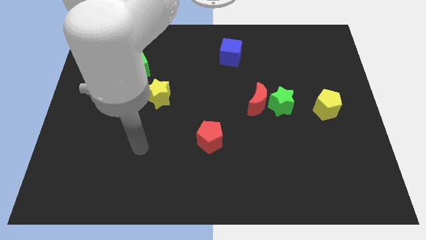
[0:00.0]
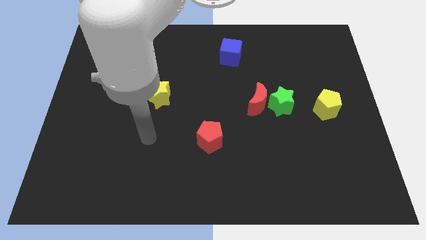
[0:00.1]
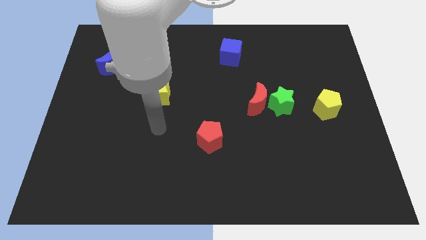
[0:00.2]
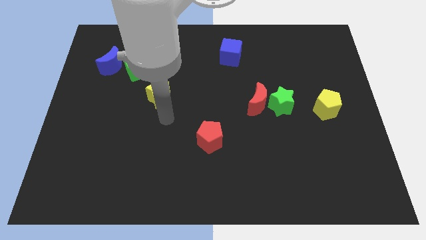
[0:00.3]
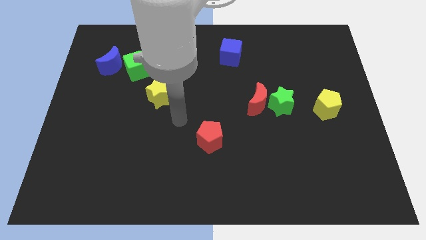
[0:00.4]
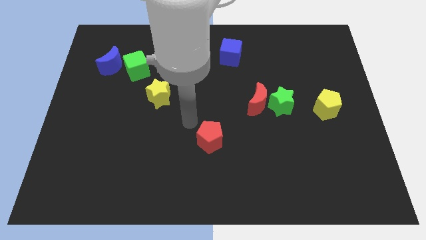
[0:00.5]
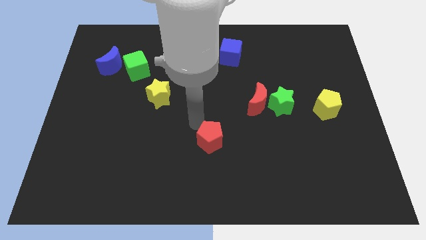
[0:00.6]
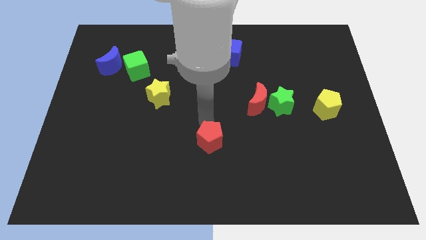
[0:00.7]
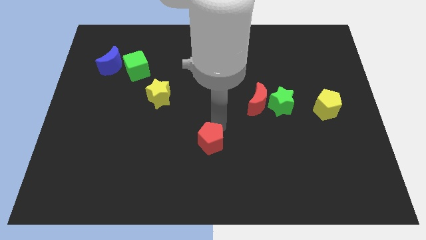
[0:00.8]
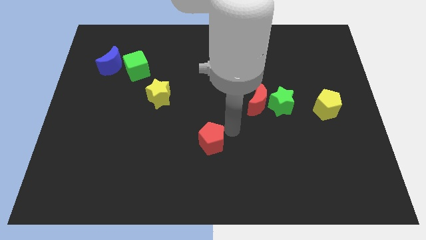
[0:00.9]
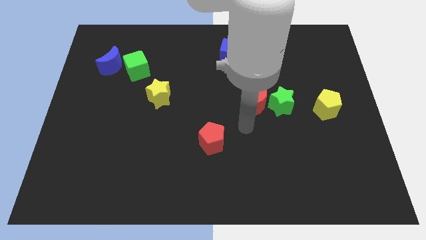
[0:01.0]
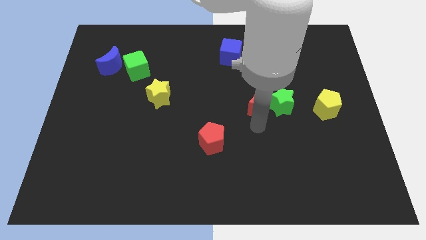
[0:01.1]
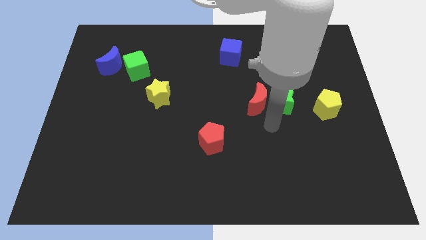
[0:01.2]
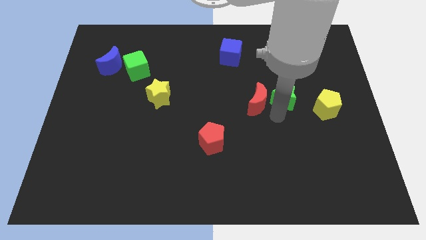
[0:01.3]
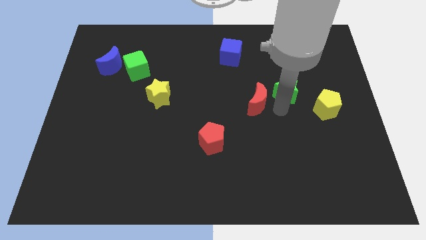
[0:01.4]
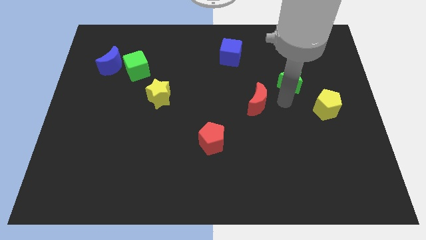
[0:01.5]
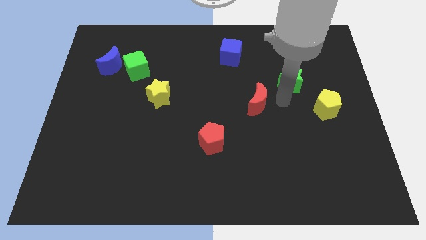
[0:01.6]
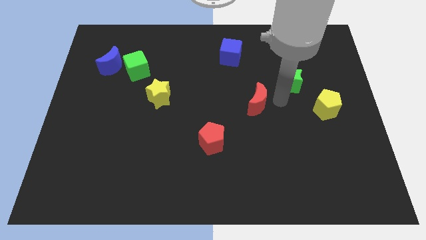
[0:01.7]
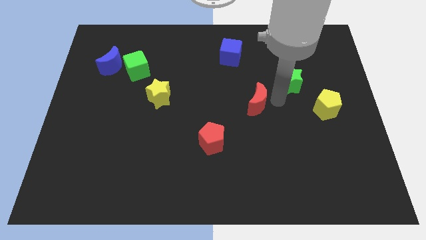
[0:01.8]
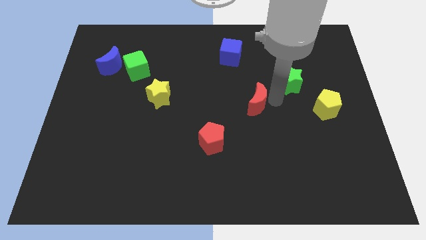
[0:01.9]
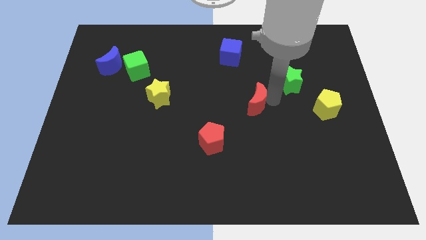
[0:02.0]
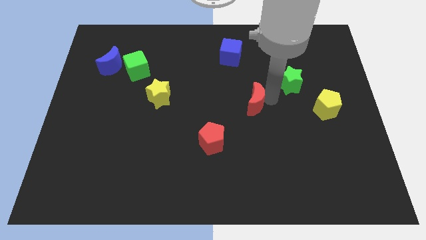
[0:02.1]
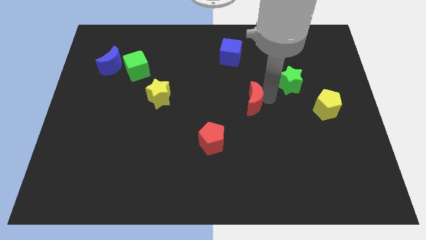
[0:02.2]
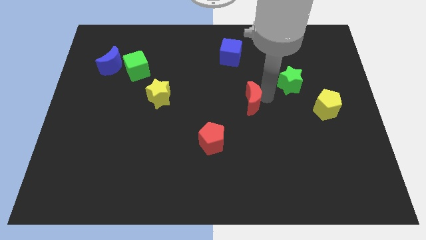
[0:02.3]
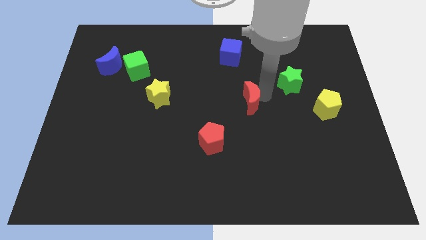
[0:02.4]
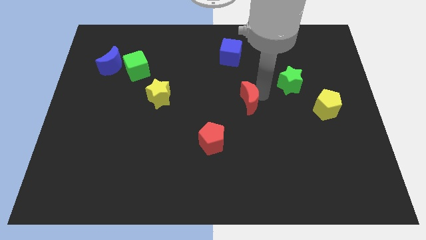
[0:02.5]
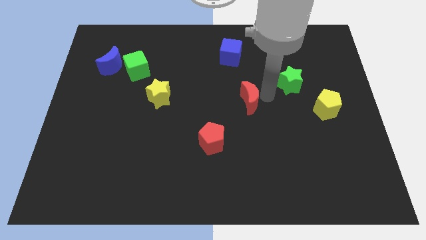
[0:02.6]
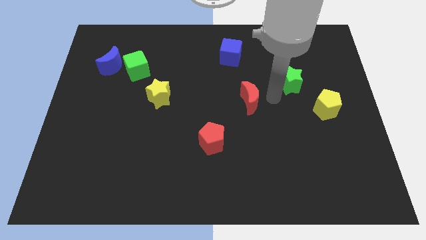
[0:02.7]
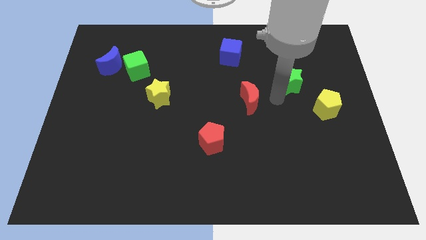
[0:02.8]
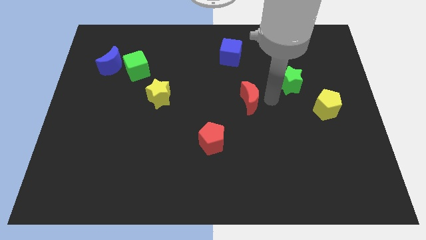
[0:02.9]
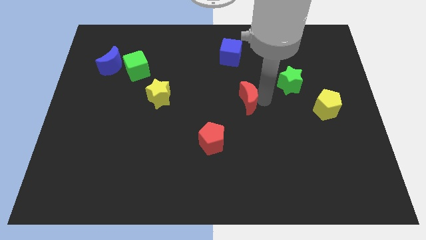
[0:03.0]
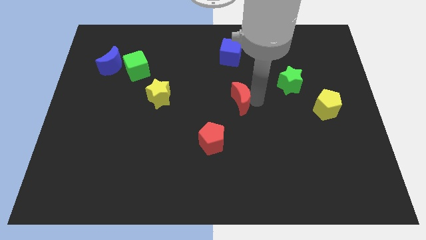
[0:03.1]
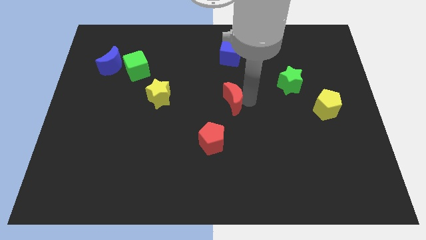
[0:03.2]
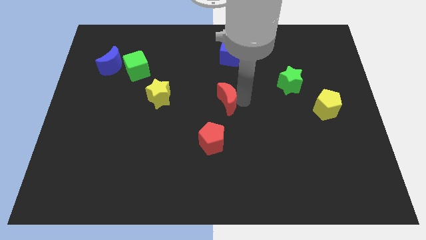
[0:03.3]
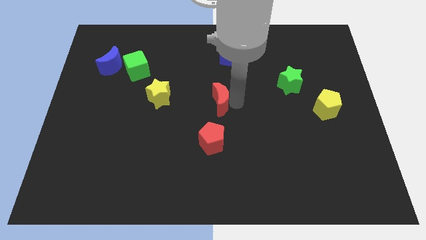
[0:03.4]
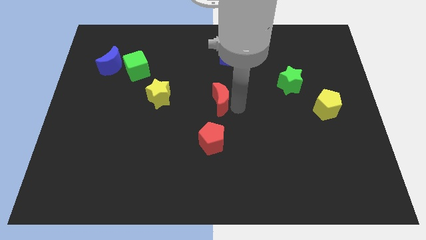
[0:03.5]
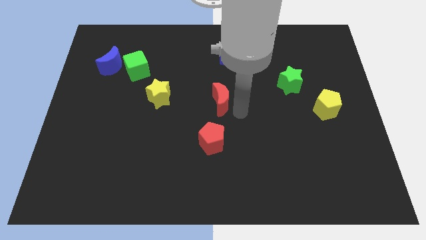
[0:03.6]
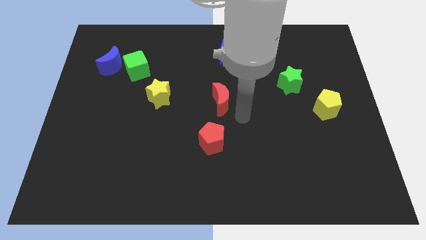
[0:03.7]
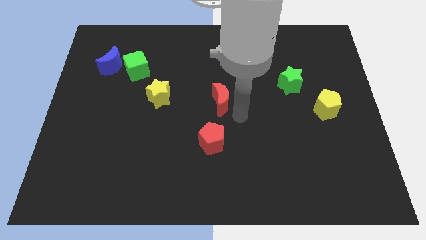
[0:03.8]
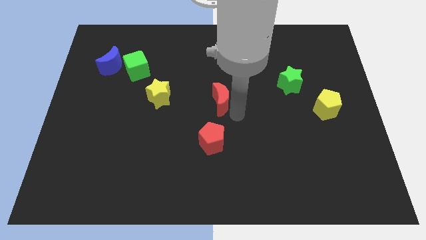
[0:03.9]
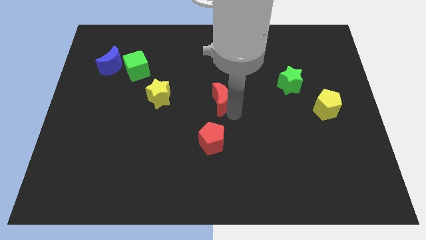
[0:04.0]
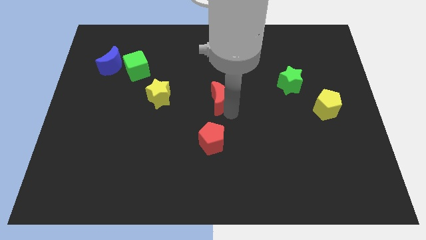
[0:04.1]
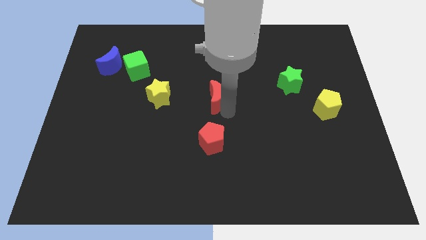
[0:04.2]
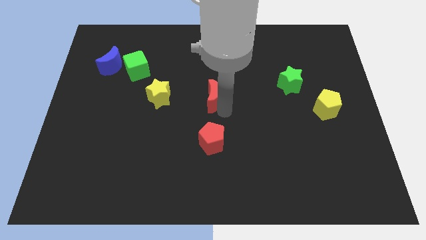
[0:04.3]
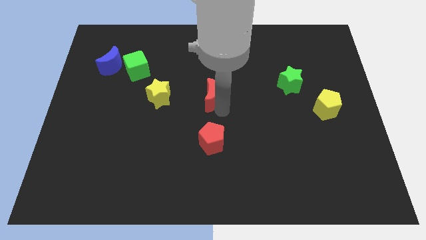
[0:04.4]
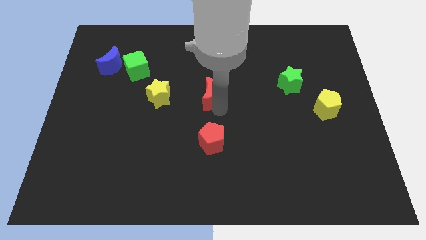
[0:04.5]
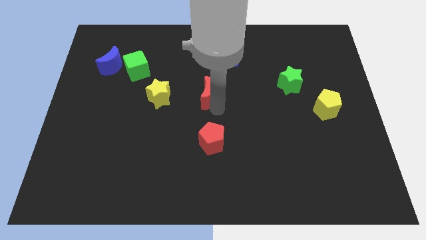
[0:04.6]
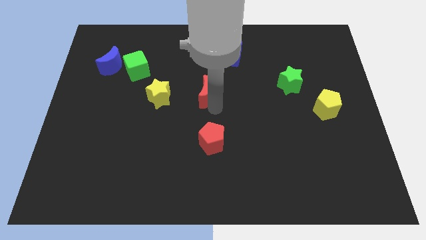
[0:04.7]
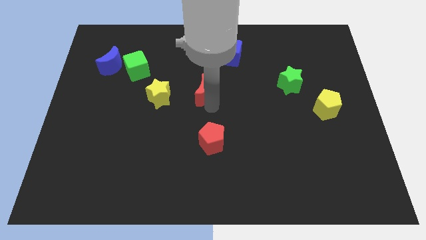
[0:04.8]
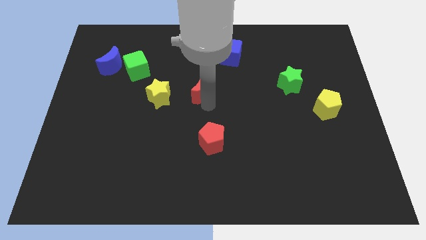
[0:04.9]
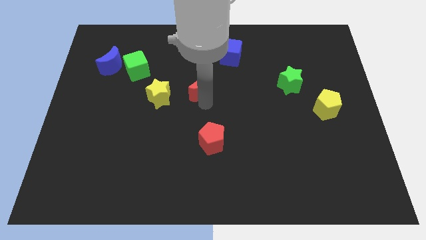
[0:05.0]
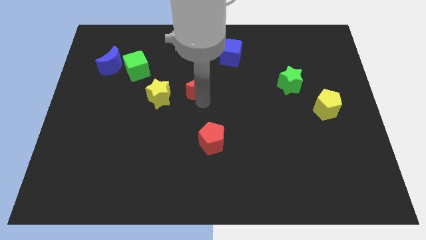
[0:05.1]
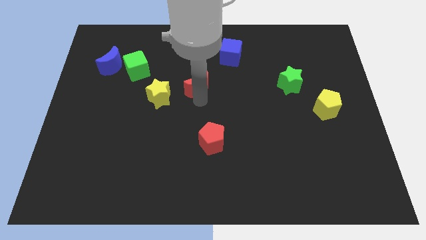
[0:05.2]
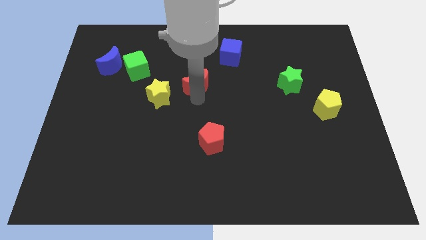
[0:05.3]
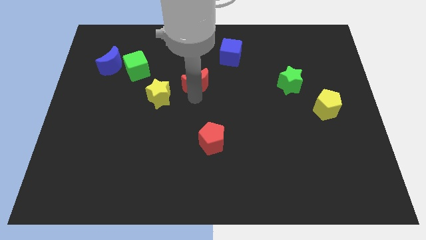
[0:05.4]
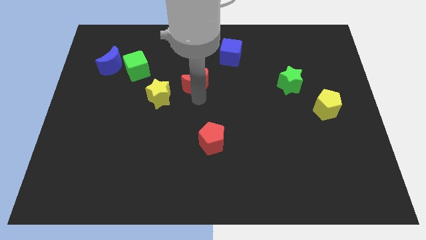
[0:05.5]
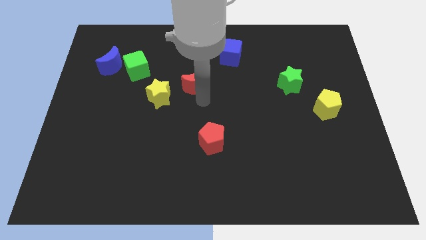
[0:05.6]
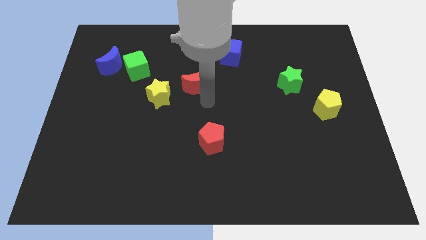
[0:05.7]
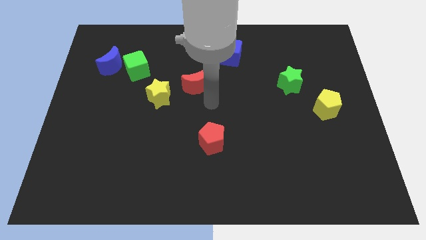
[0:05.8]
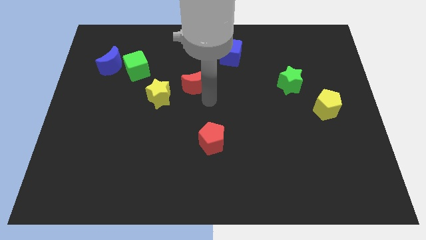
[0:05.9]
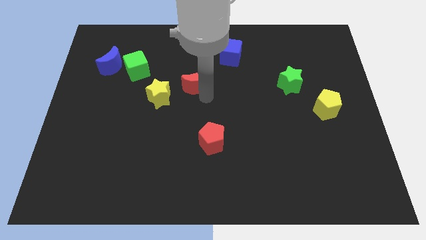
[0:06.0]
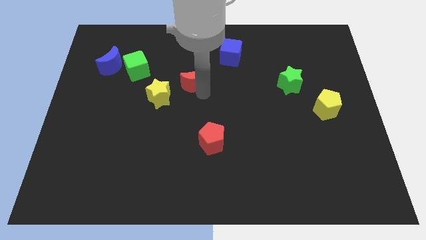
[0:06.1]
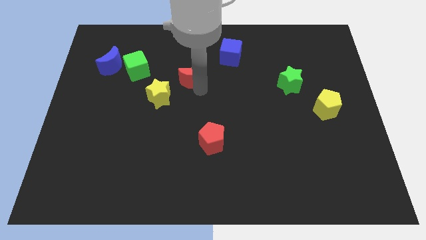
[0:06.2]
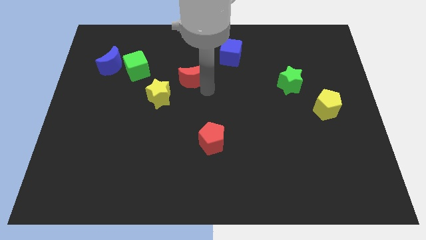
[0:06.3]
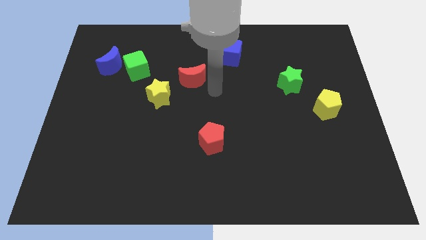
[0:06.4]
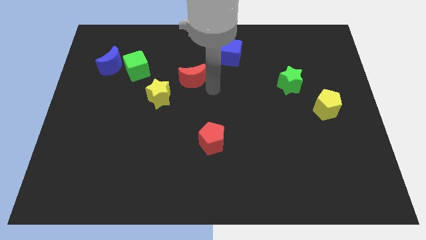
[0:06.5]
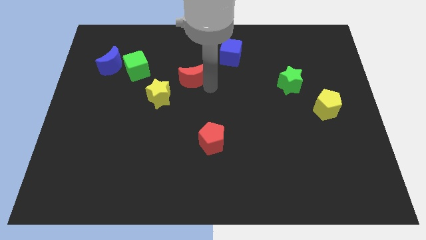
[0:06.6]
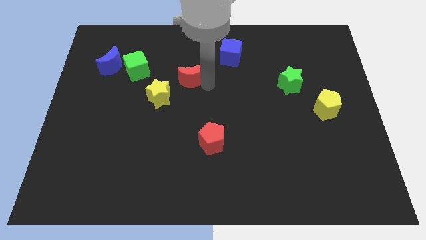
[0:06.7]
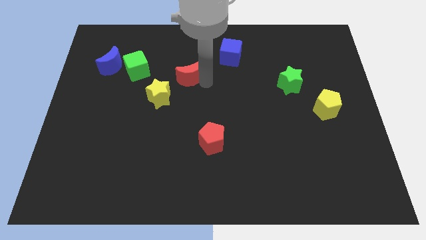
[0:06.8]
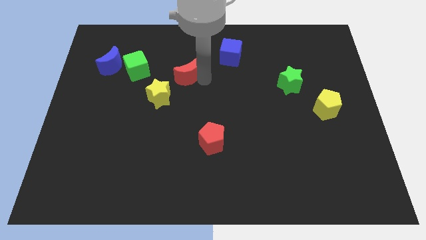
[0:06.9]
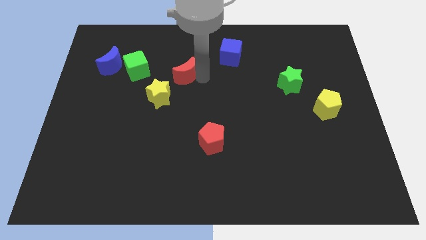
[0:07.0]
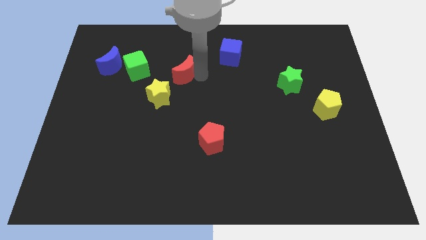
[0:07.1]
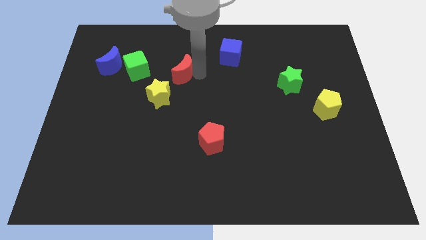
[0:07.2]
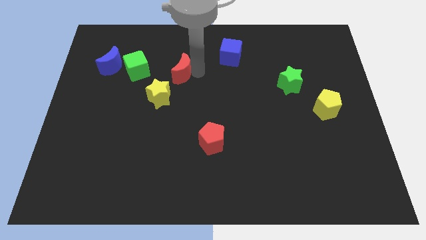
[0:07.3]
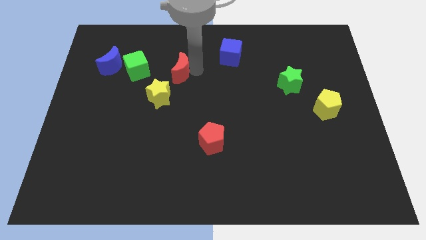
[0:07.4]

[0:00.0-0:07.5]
slide the red moon to the top of the yellow star
